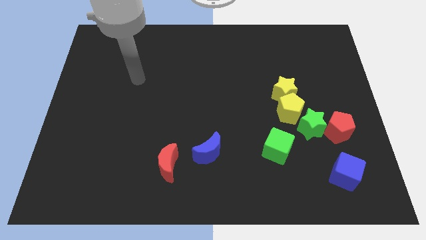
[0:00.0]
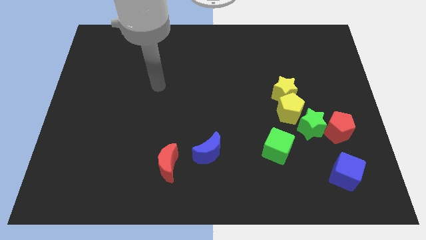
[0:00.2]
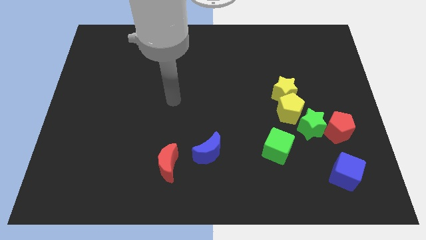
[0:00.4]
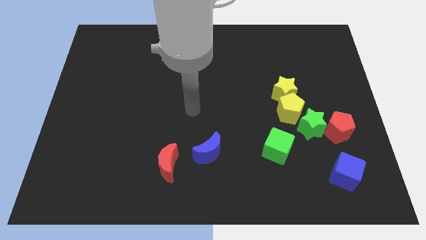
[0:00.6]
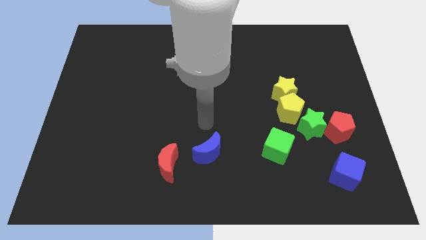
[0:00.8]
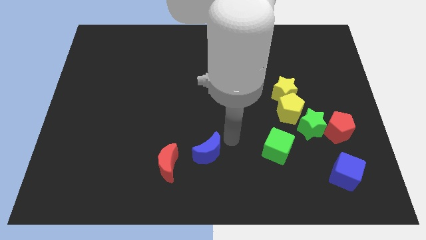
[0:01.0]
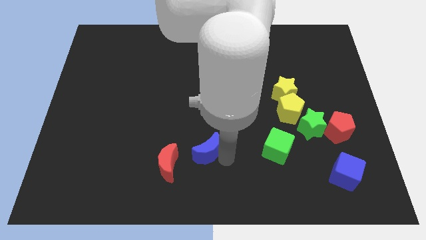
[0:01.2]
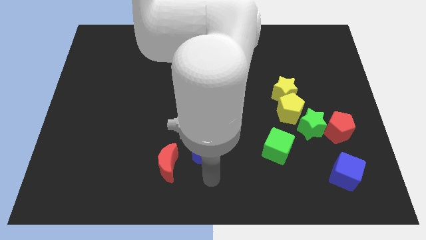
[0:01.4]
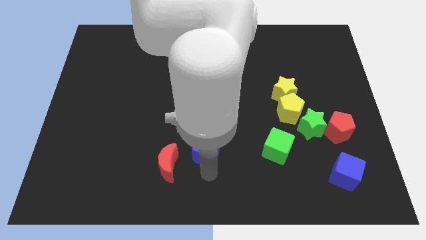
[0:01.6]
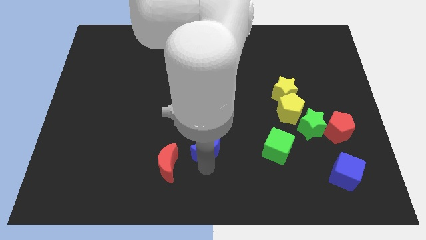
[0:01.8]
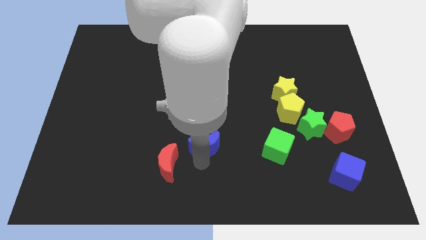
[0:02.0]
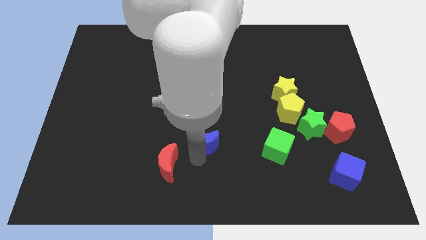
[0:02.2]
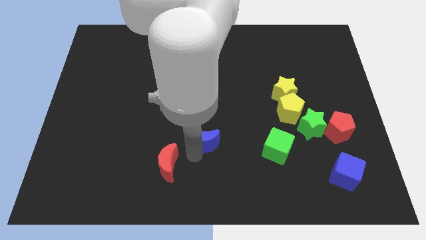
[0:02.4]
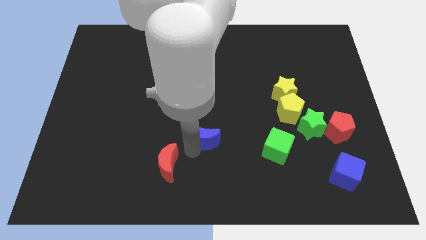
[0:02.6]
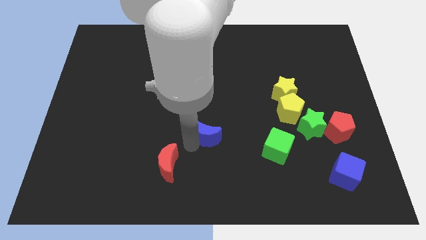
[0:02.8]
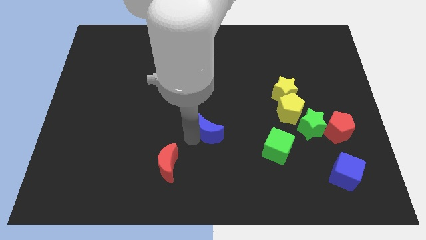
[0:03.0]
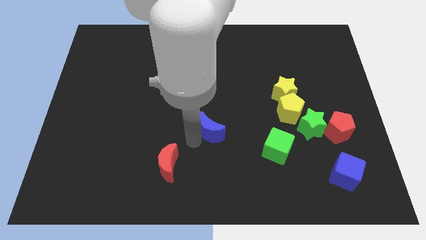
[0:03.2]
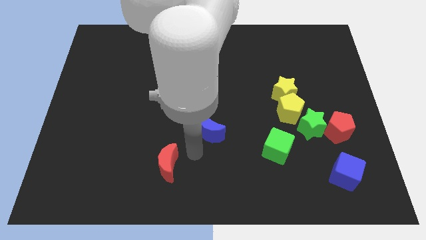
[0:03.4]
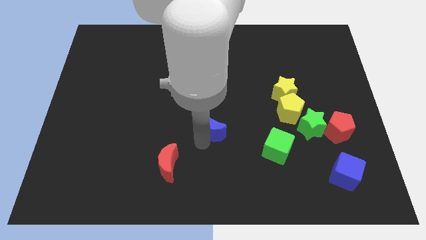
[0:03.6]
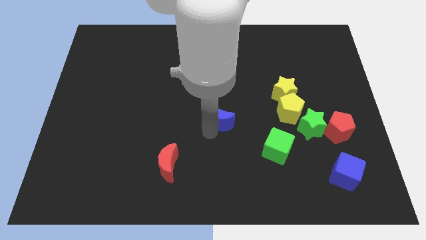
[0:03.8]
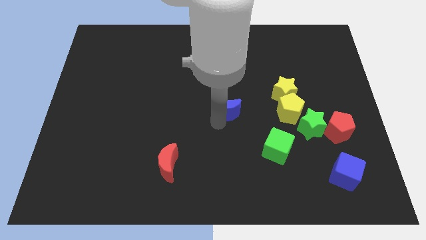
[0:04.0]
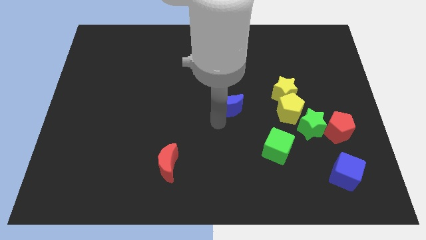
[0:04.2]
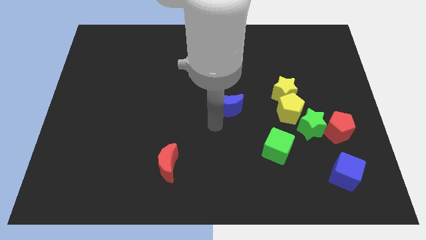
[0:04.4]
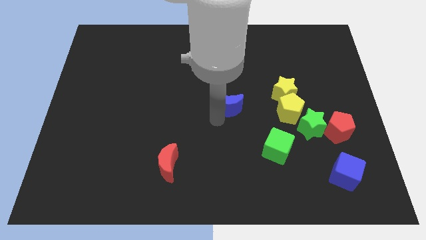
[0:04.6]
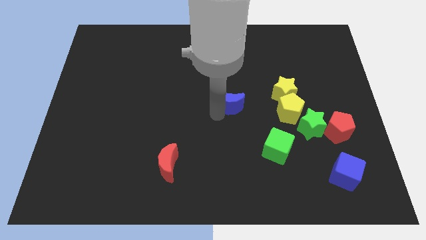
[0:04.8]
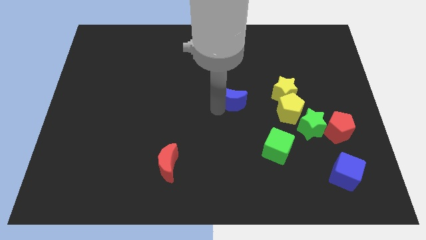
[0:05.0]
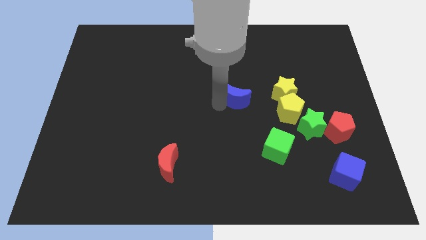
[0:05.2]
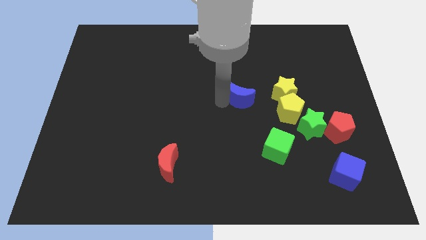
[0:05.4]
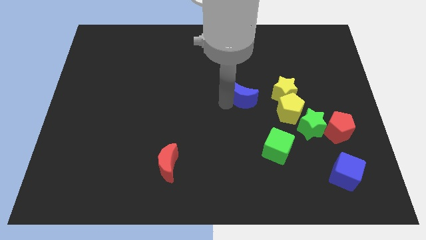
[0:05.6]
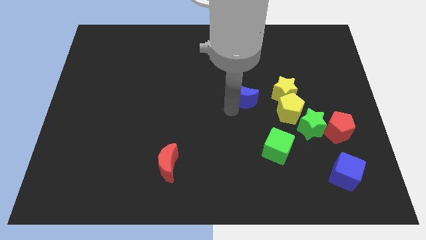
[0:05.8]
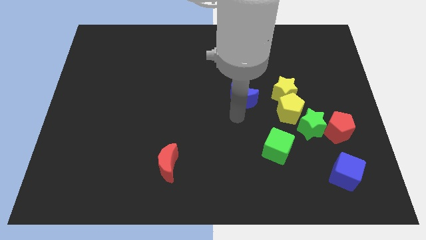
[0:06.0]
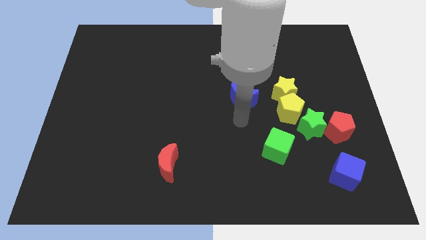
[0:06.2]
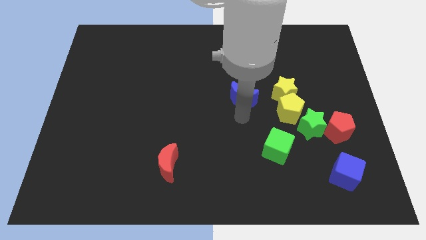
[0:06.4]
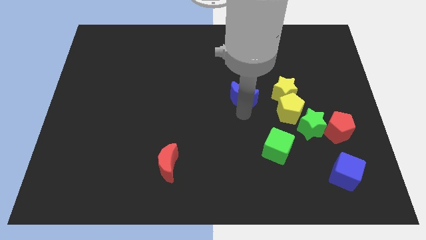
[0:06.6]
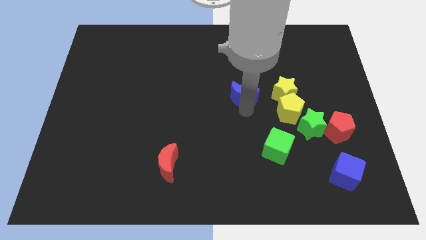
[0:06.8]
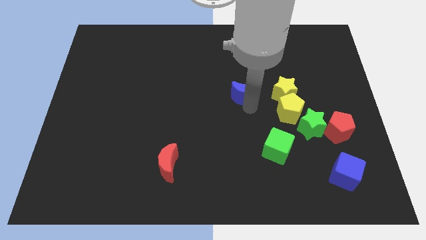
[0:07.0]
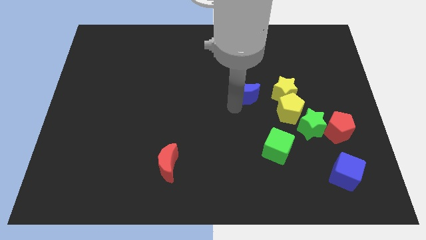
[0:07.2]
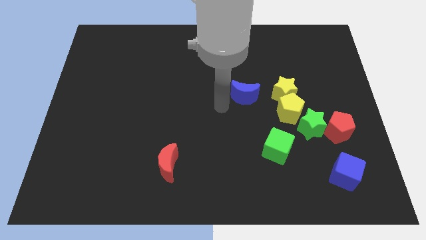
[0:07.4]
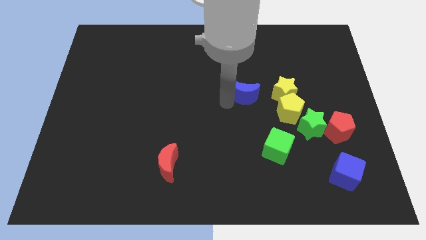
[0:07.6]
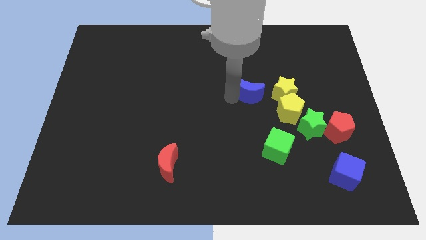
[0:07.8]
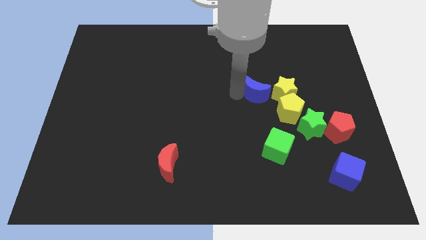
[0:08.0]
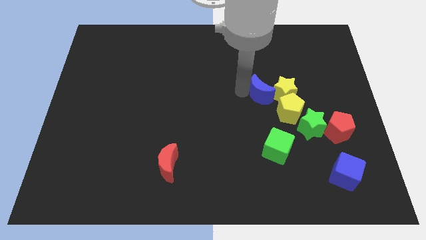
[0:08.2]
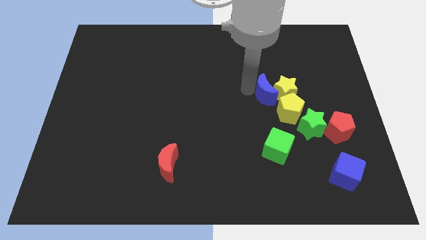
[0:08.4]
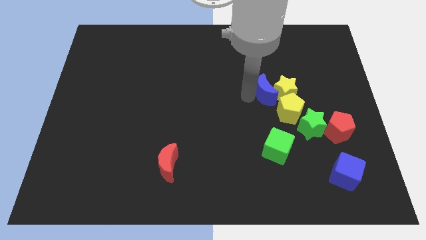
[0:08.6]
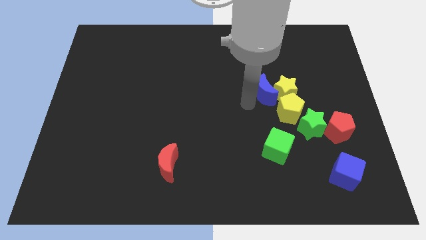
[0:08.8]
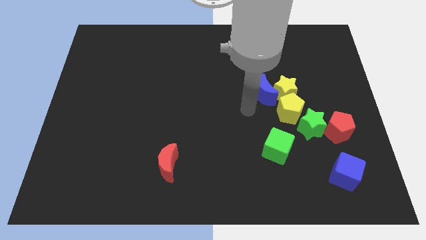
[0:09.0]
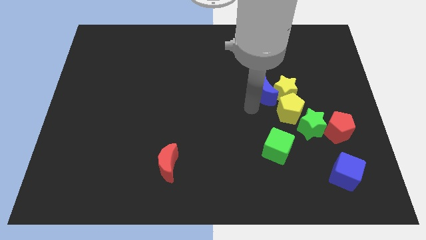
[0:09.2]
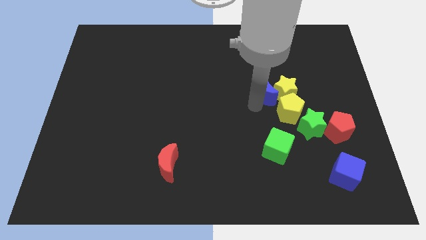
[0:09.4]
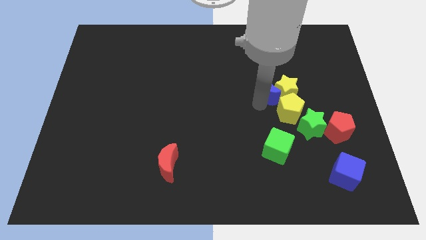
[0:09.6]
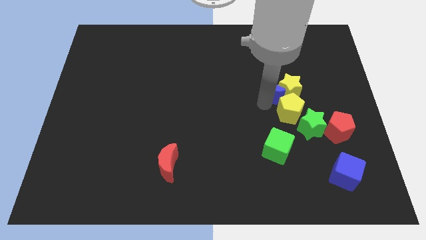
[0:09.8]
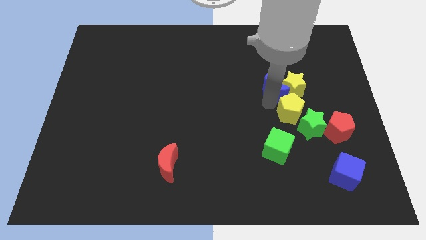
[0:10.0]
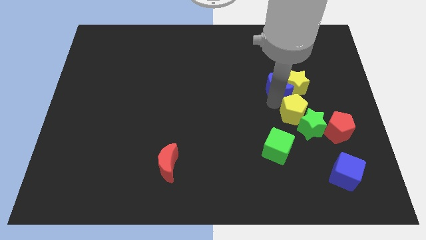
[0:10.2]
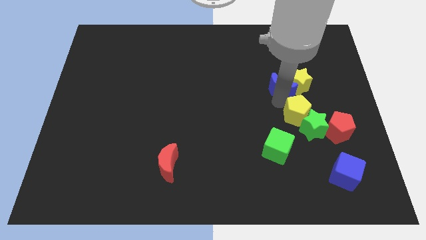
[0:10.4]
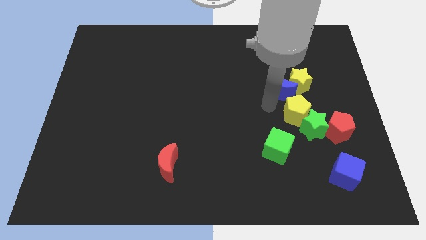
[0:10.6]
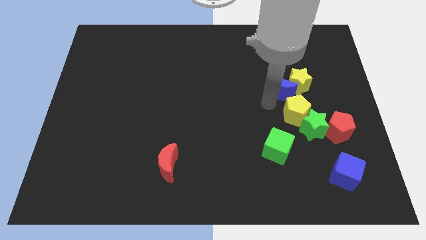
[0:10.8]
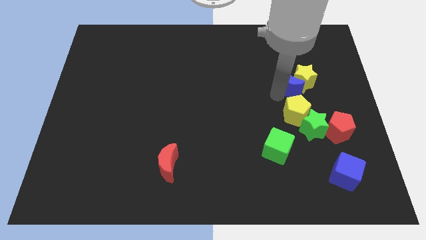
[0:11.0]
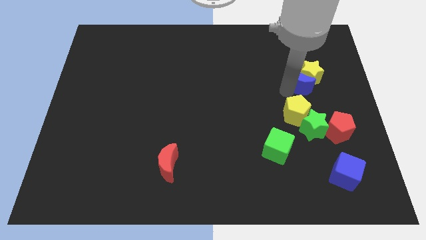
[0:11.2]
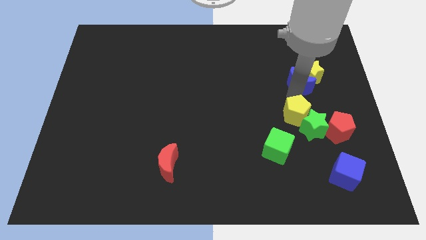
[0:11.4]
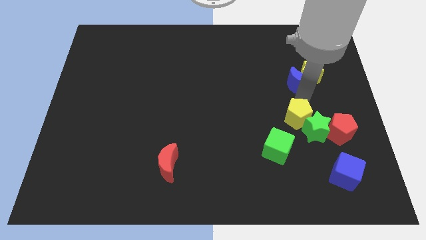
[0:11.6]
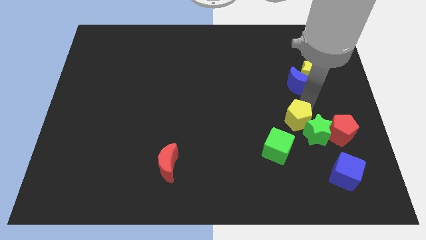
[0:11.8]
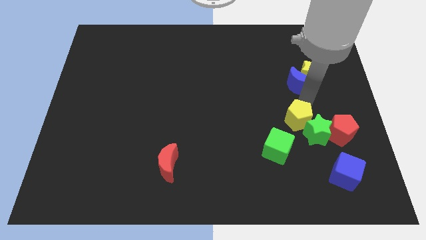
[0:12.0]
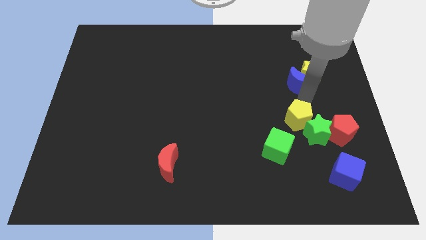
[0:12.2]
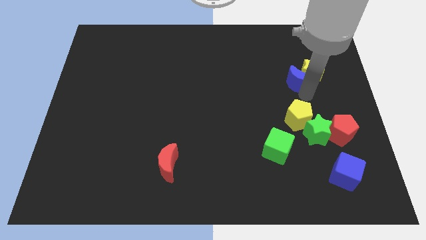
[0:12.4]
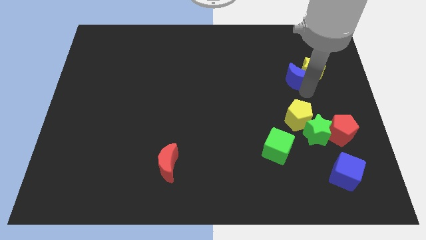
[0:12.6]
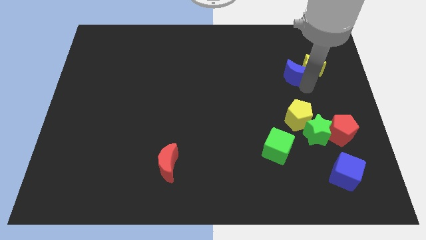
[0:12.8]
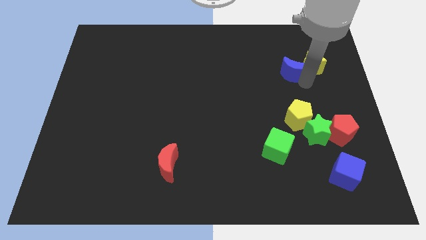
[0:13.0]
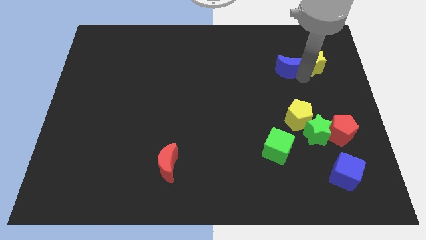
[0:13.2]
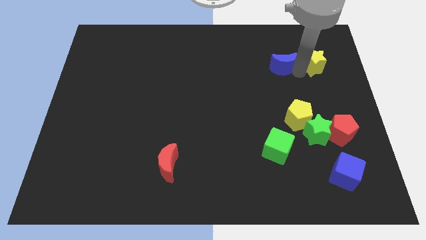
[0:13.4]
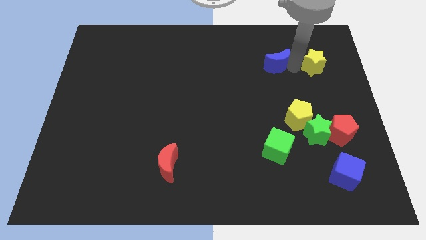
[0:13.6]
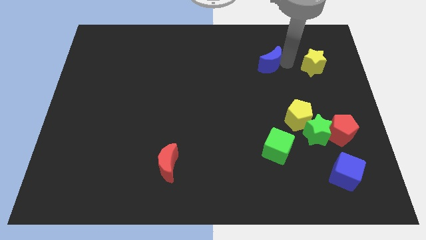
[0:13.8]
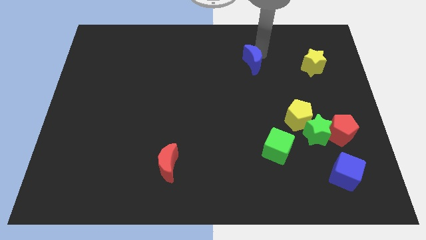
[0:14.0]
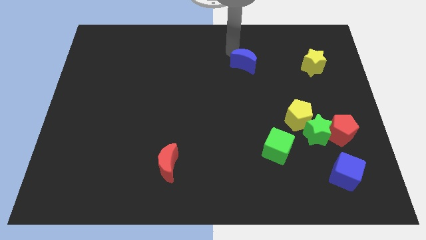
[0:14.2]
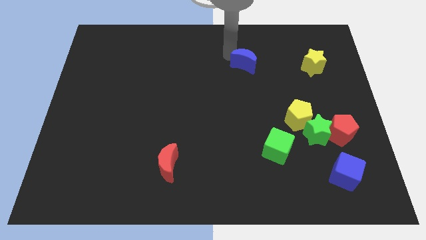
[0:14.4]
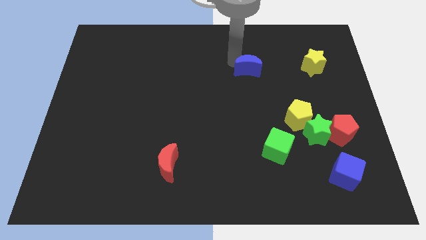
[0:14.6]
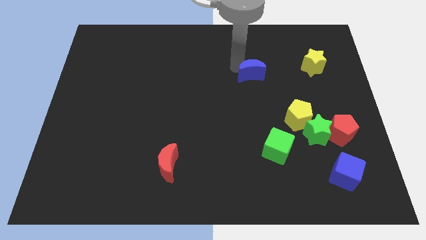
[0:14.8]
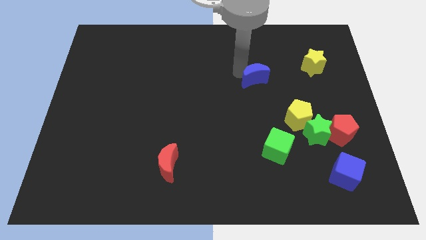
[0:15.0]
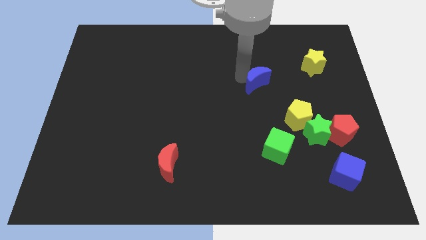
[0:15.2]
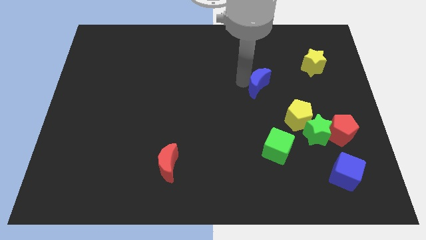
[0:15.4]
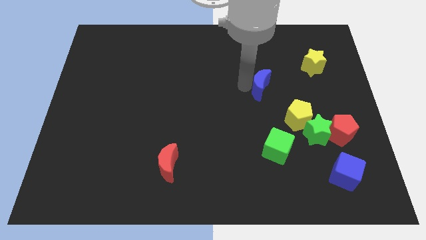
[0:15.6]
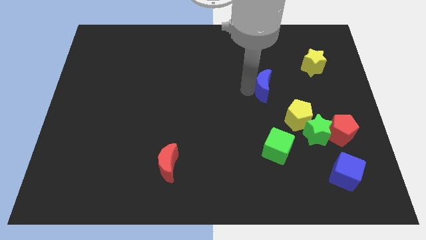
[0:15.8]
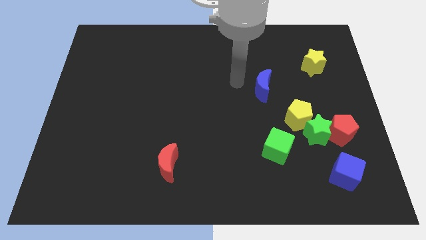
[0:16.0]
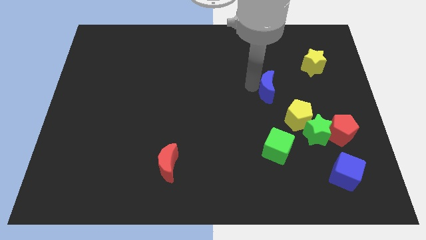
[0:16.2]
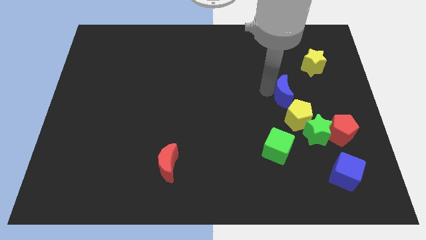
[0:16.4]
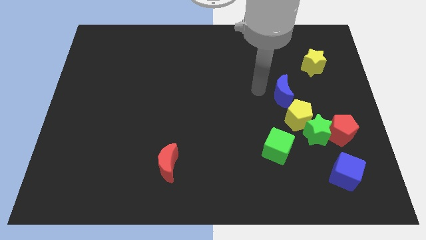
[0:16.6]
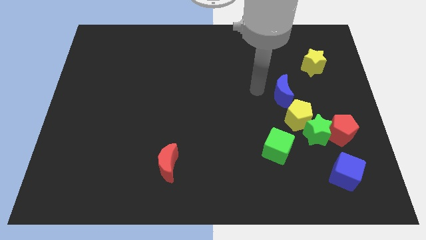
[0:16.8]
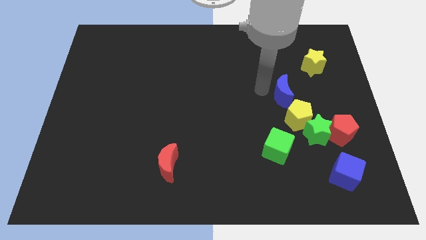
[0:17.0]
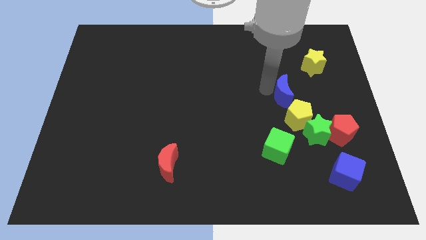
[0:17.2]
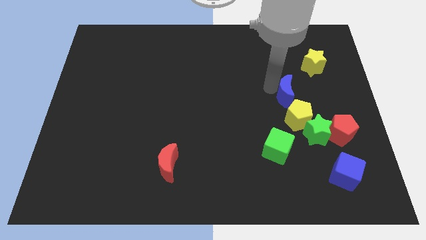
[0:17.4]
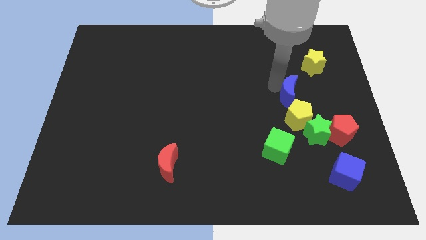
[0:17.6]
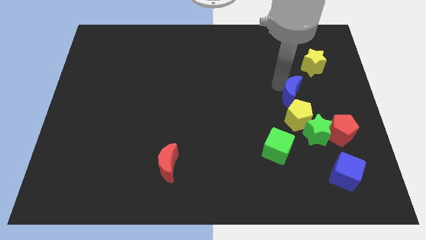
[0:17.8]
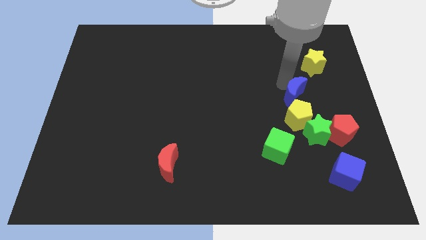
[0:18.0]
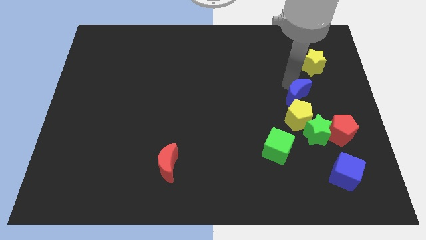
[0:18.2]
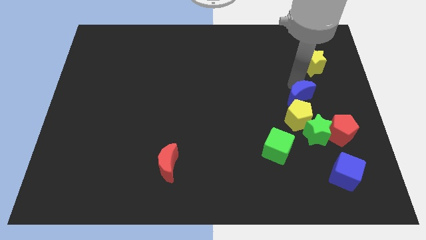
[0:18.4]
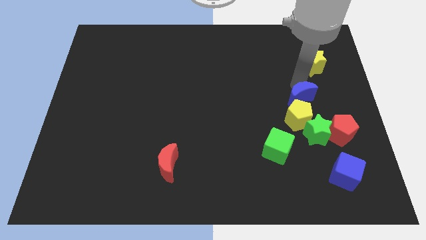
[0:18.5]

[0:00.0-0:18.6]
put the blue moon to the top left of the red pentagon
